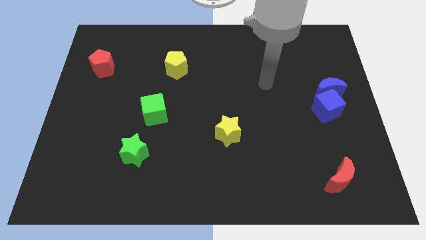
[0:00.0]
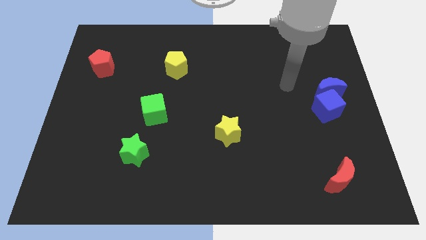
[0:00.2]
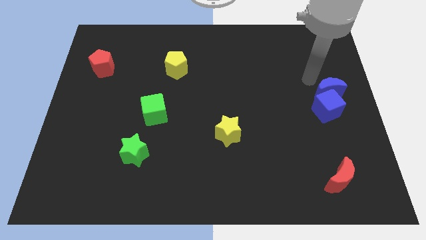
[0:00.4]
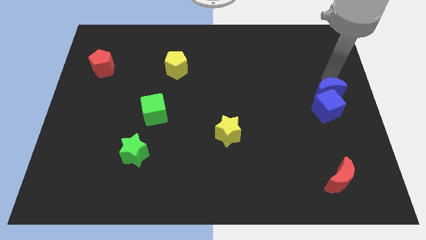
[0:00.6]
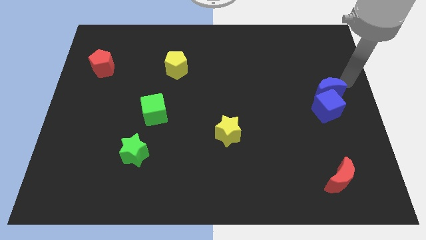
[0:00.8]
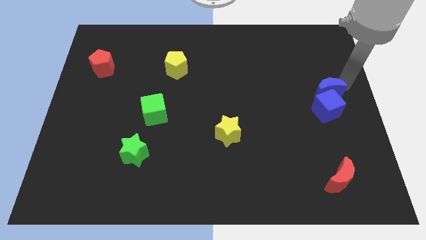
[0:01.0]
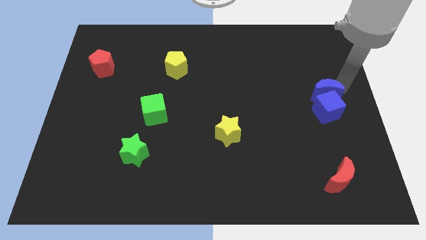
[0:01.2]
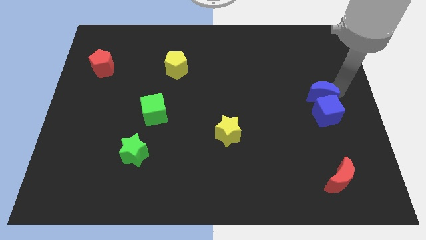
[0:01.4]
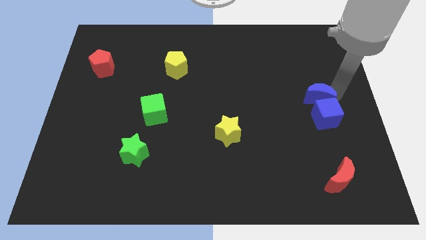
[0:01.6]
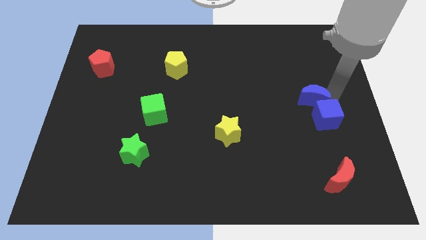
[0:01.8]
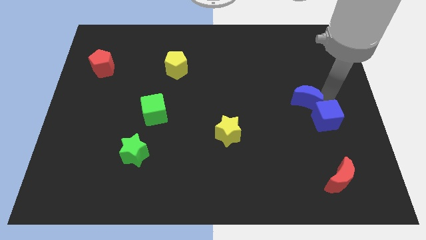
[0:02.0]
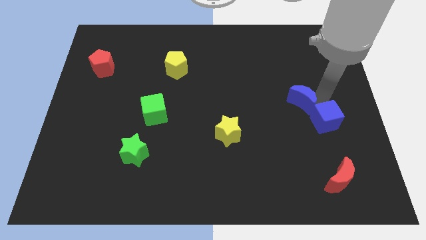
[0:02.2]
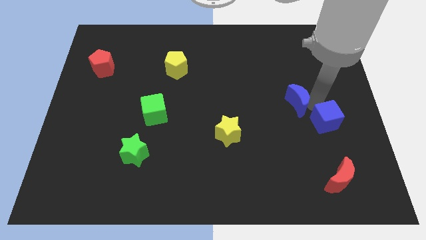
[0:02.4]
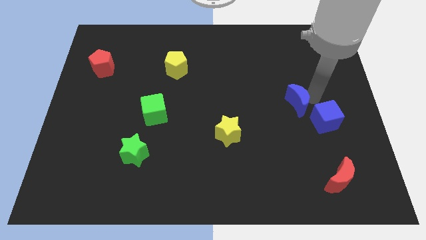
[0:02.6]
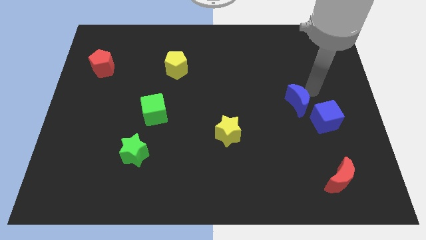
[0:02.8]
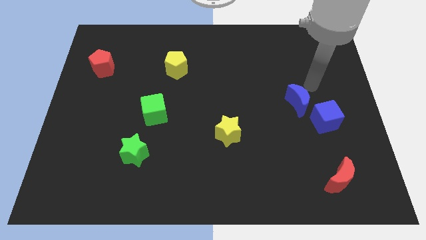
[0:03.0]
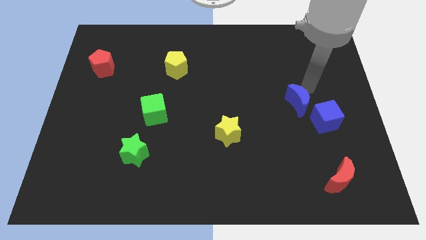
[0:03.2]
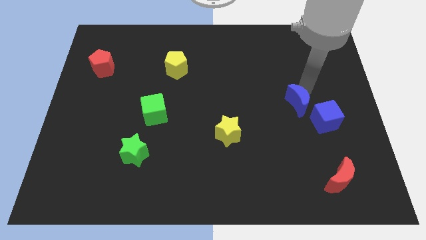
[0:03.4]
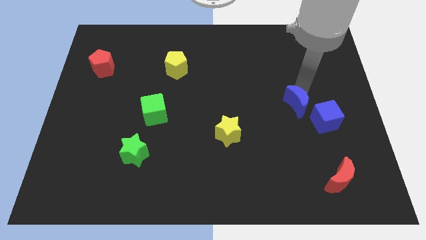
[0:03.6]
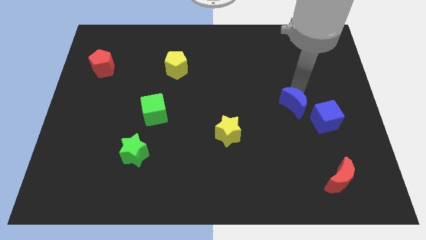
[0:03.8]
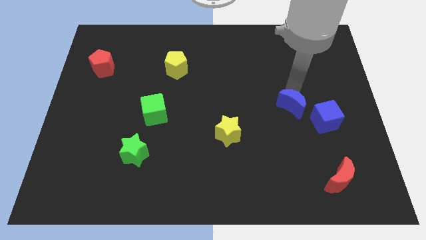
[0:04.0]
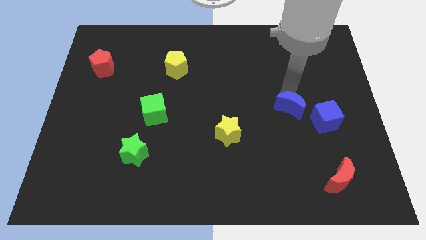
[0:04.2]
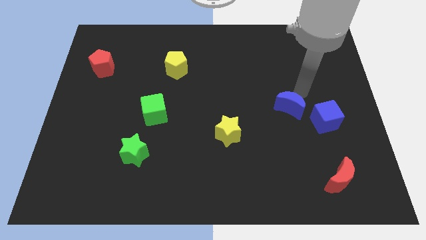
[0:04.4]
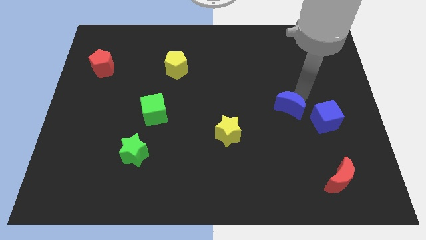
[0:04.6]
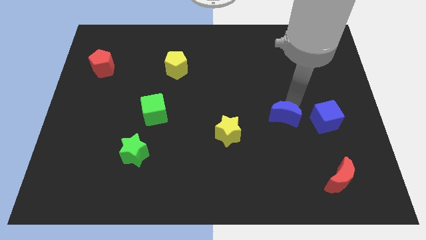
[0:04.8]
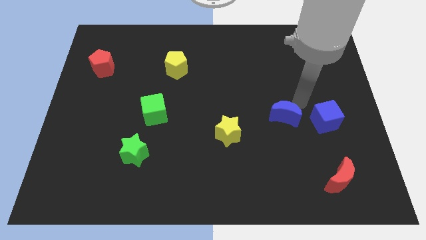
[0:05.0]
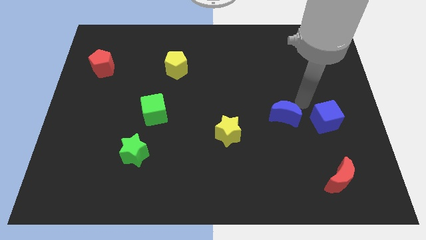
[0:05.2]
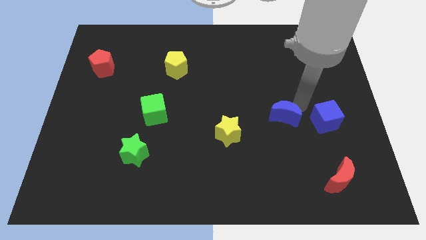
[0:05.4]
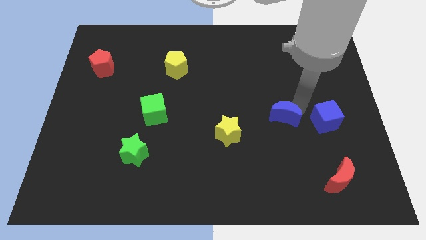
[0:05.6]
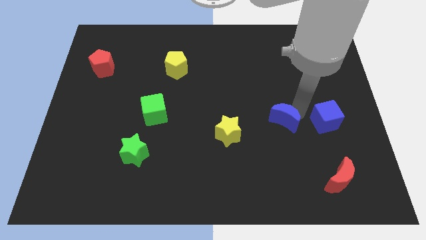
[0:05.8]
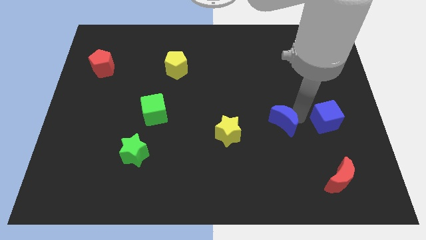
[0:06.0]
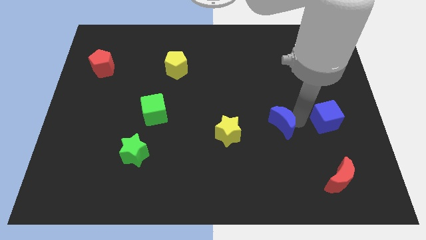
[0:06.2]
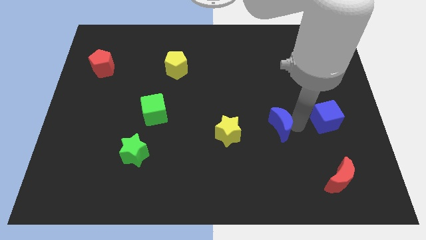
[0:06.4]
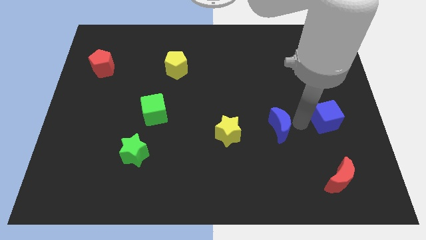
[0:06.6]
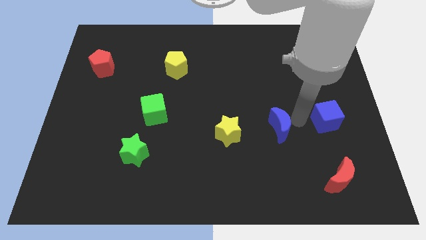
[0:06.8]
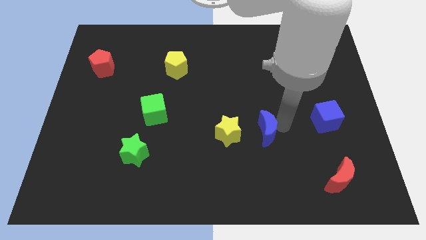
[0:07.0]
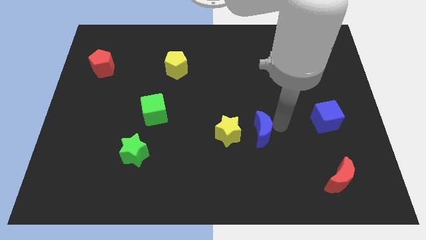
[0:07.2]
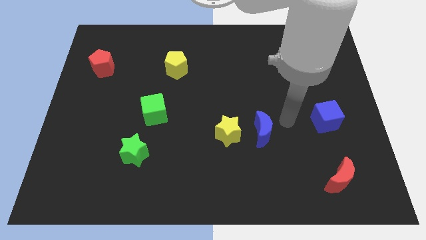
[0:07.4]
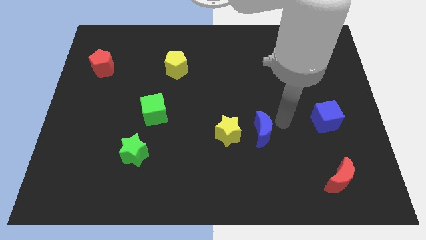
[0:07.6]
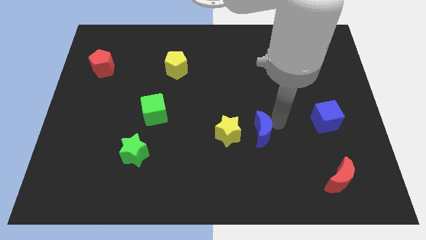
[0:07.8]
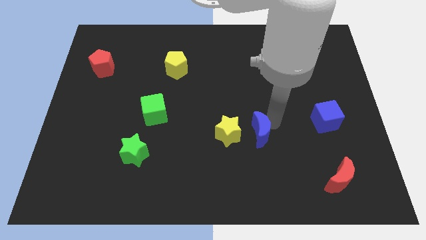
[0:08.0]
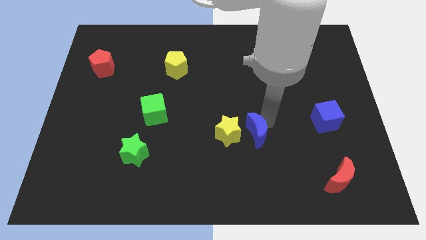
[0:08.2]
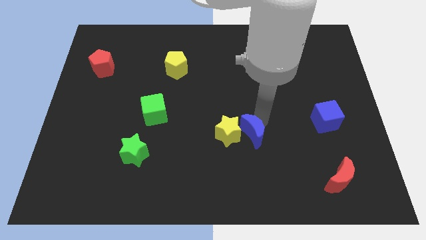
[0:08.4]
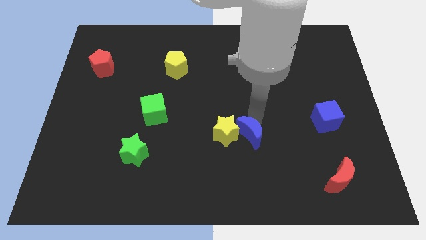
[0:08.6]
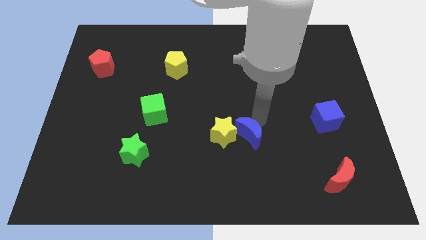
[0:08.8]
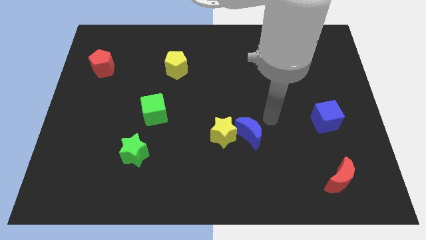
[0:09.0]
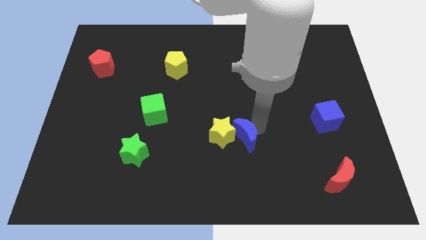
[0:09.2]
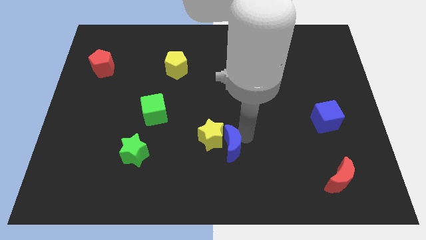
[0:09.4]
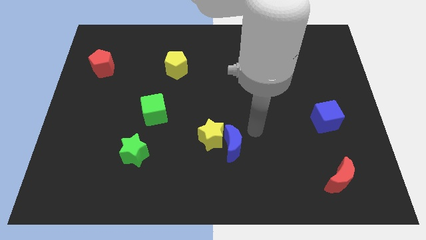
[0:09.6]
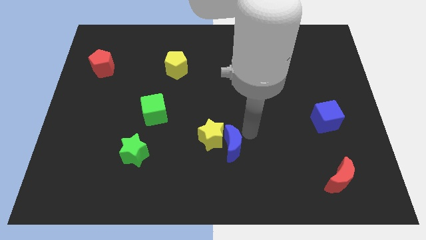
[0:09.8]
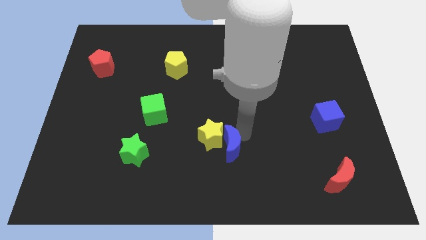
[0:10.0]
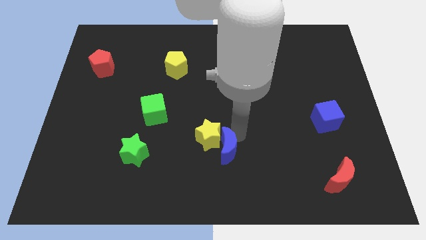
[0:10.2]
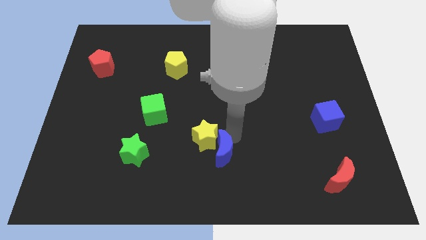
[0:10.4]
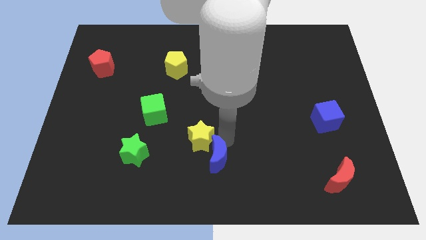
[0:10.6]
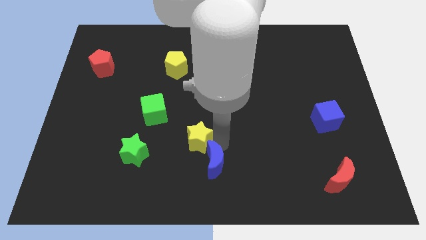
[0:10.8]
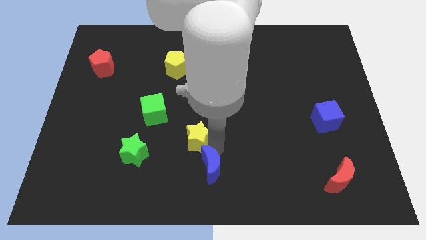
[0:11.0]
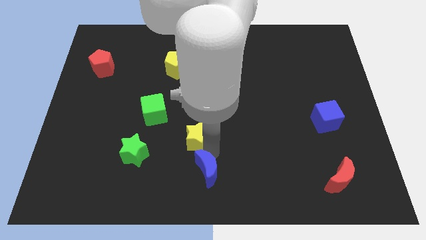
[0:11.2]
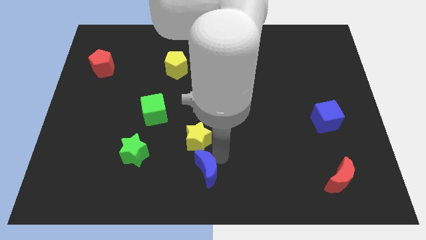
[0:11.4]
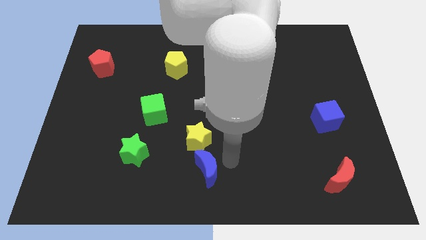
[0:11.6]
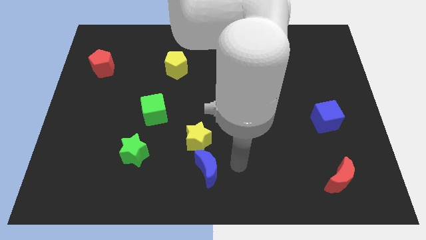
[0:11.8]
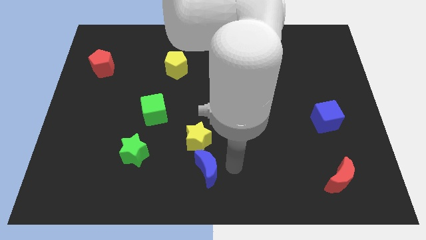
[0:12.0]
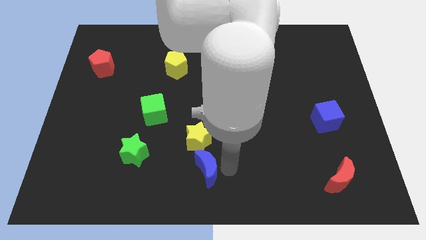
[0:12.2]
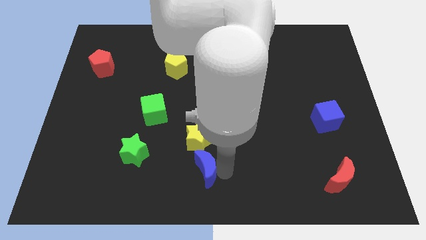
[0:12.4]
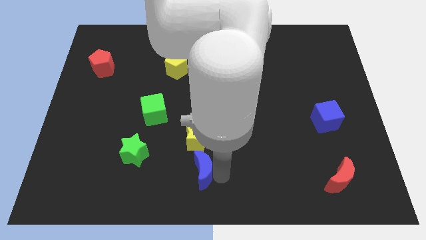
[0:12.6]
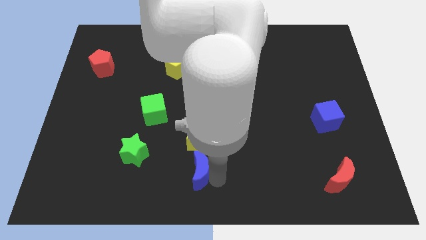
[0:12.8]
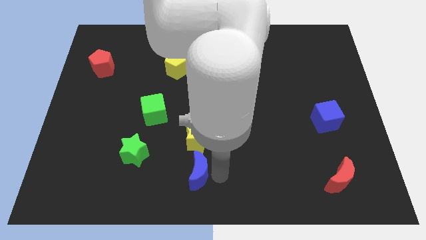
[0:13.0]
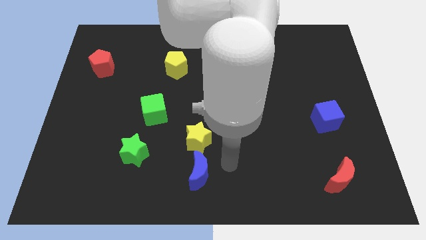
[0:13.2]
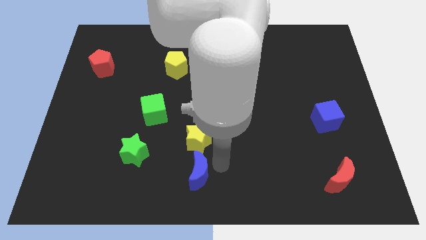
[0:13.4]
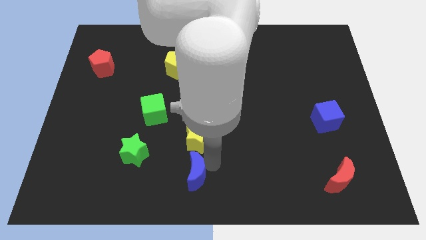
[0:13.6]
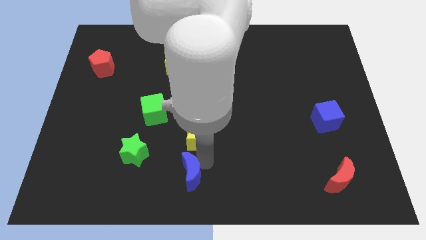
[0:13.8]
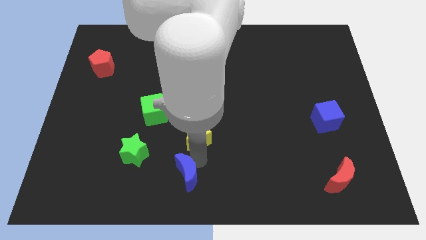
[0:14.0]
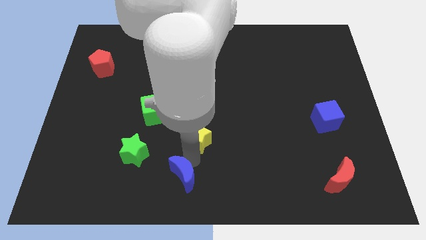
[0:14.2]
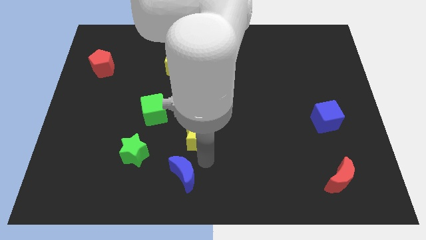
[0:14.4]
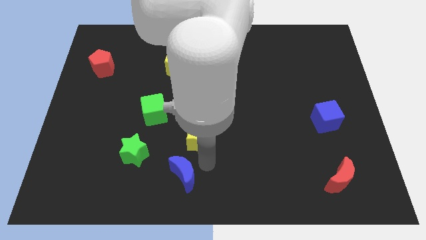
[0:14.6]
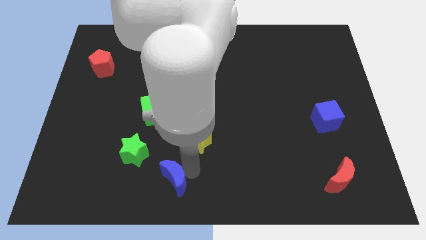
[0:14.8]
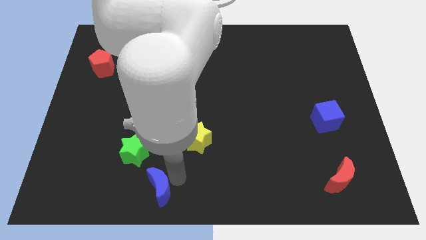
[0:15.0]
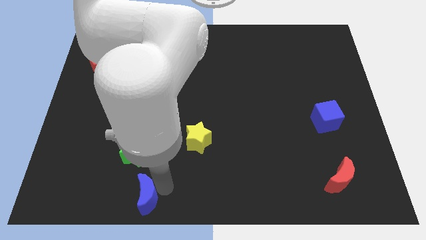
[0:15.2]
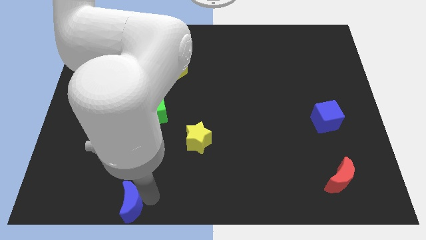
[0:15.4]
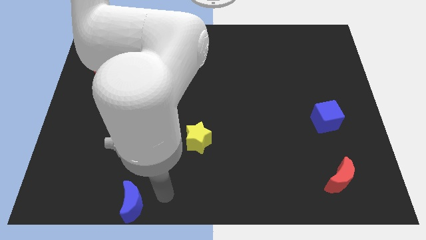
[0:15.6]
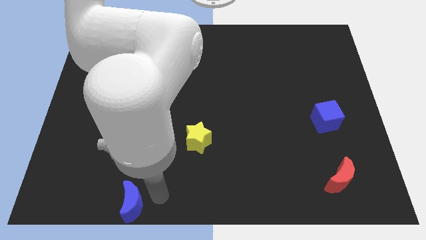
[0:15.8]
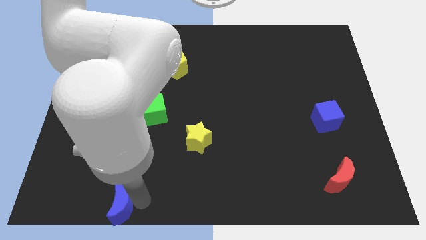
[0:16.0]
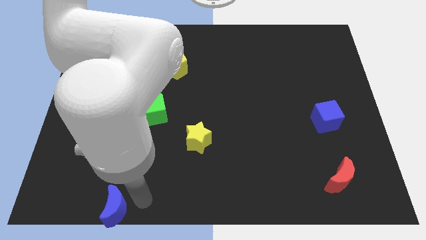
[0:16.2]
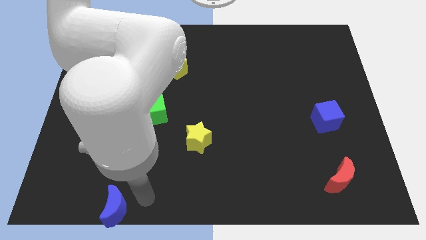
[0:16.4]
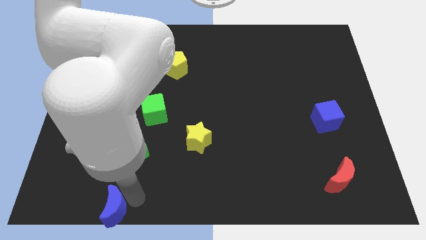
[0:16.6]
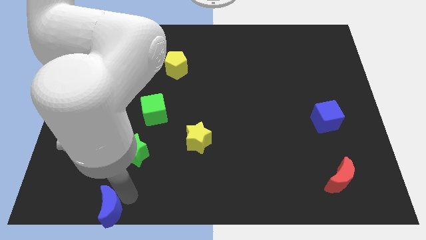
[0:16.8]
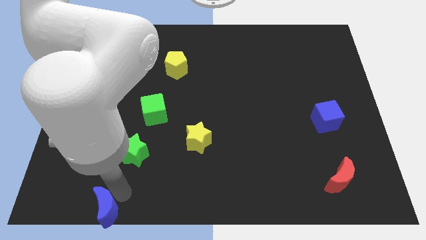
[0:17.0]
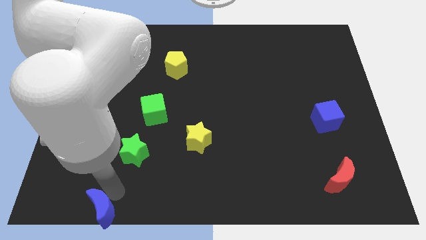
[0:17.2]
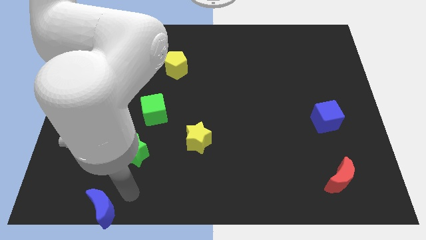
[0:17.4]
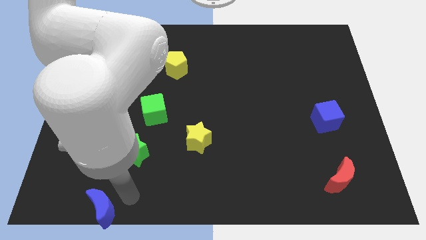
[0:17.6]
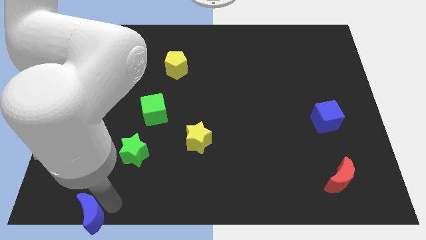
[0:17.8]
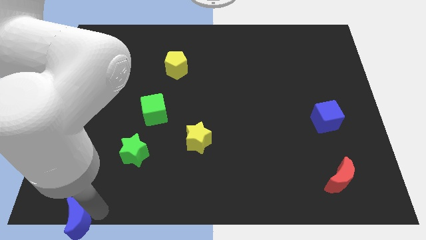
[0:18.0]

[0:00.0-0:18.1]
slide the blue moon to the bottom left corner
